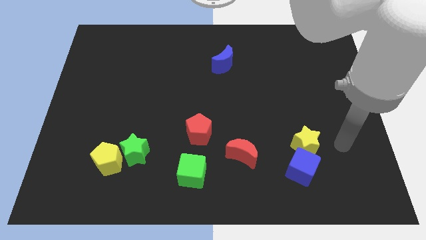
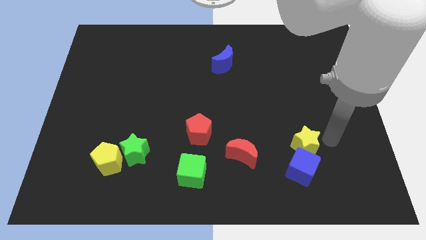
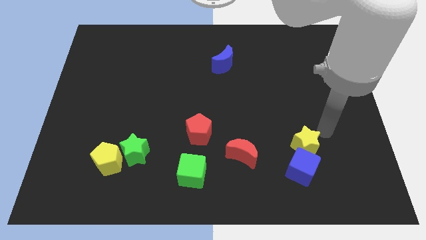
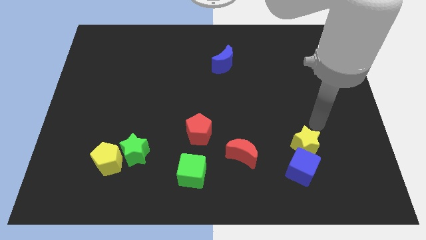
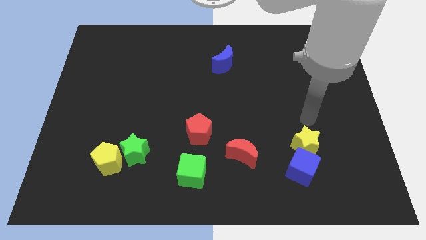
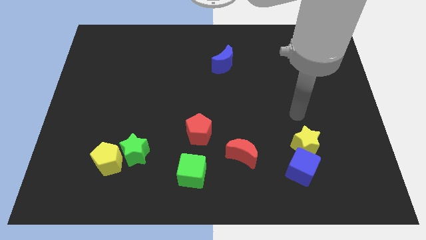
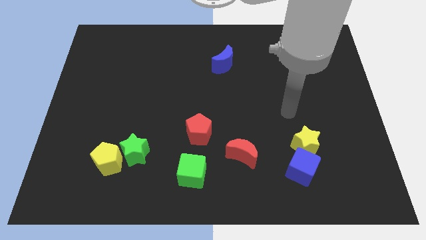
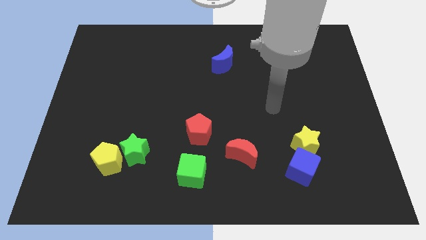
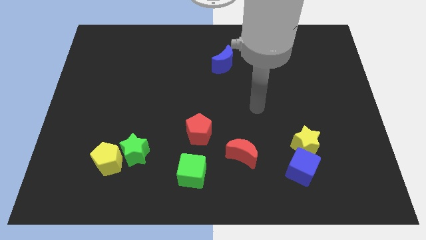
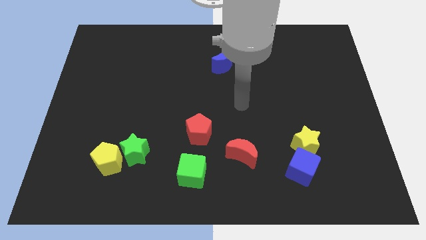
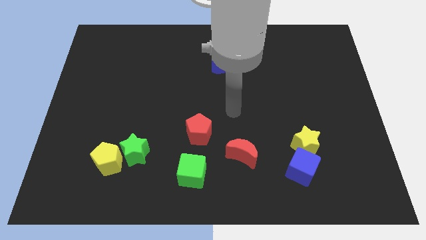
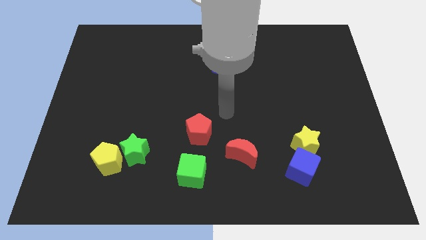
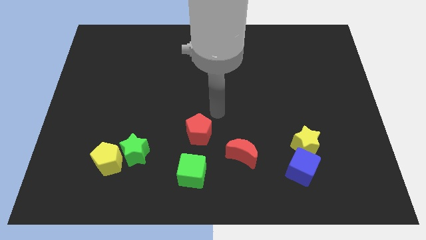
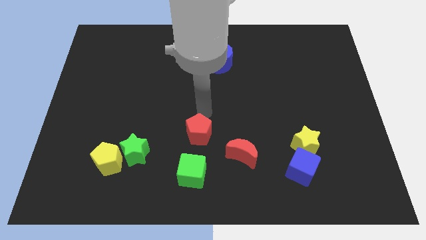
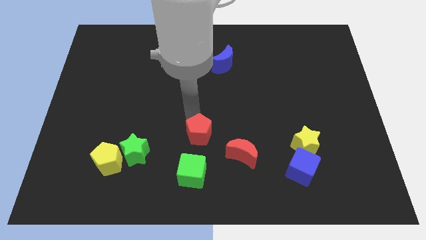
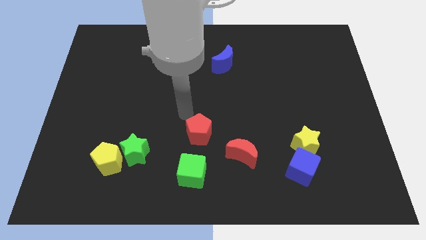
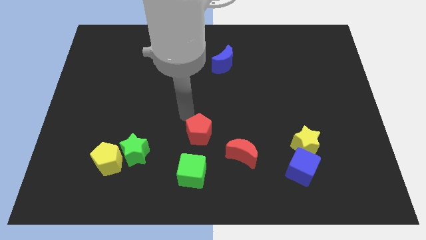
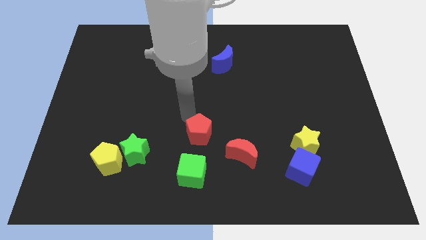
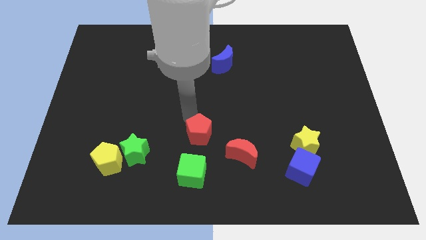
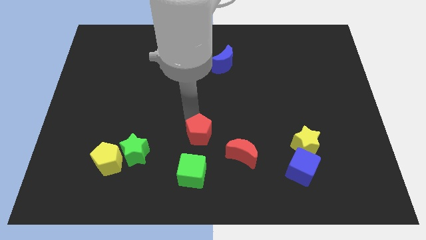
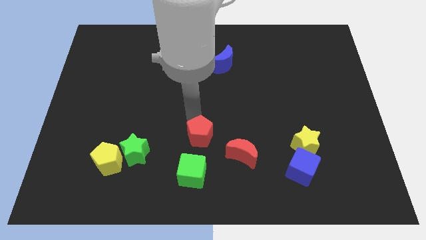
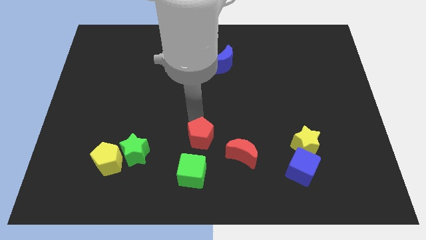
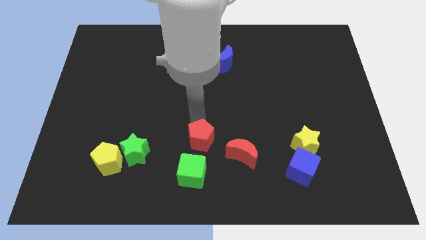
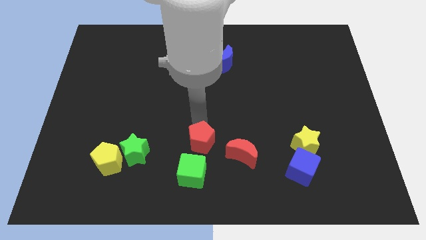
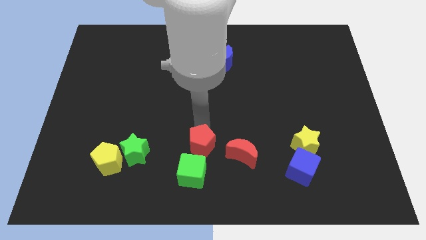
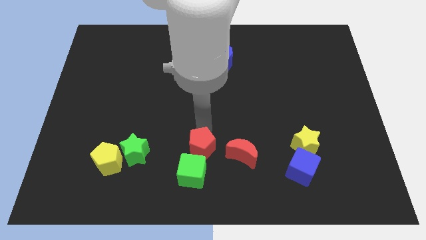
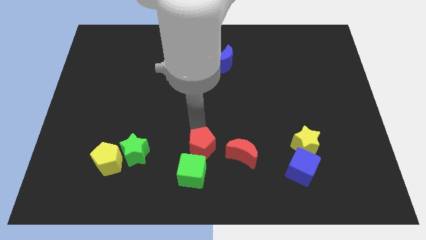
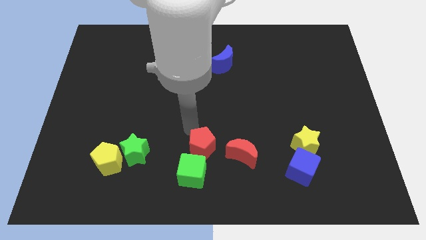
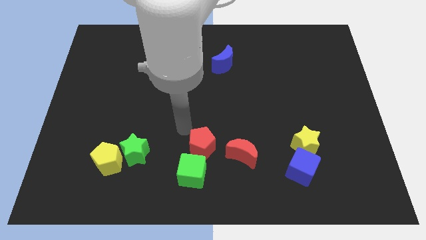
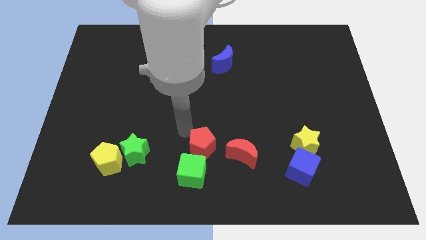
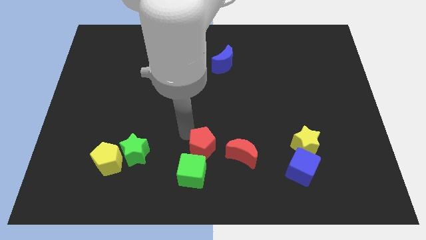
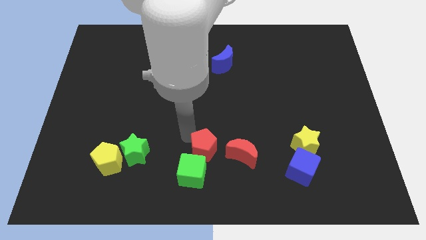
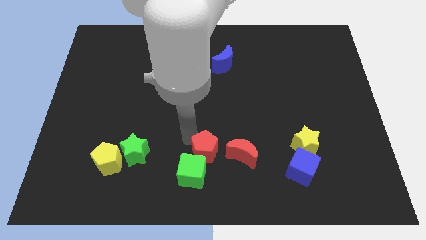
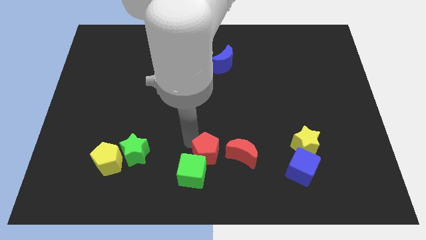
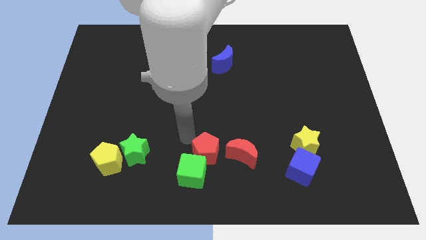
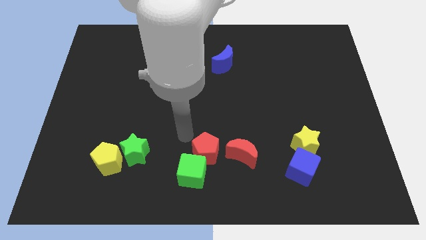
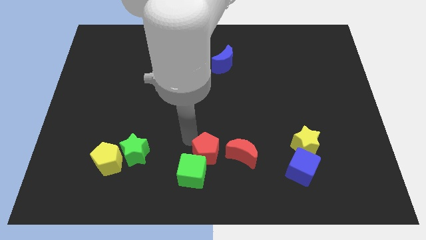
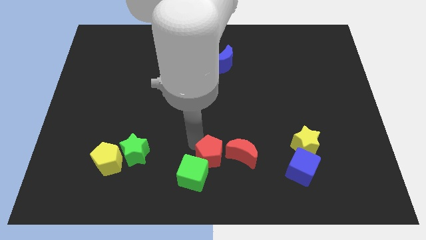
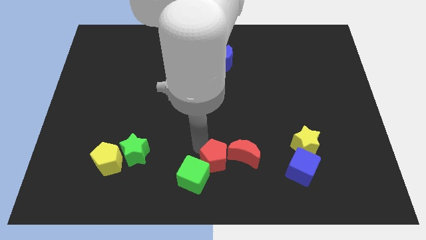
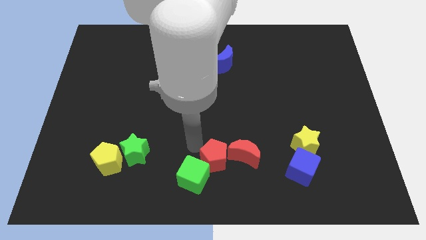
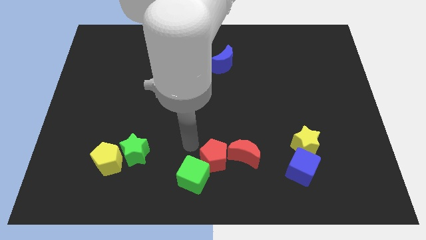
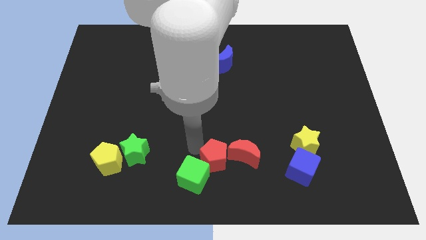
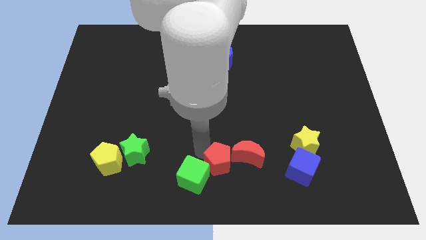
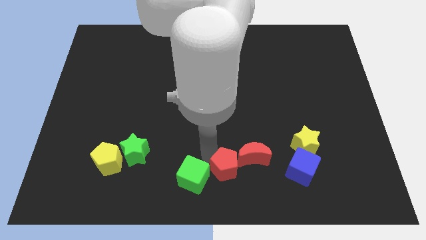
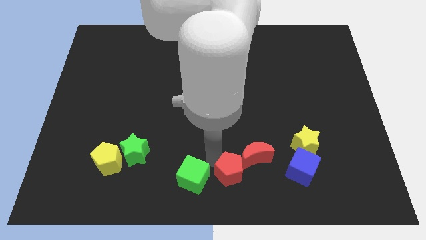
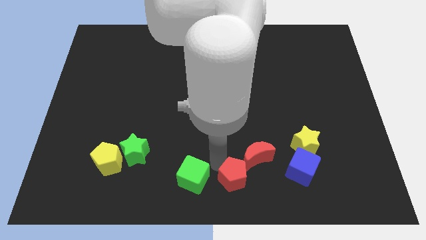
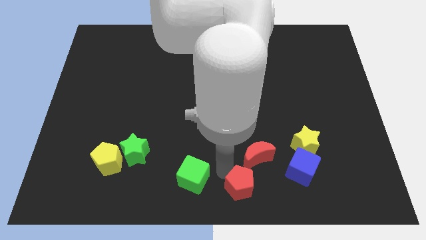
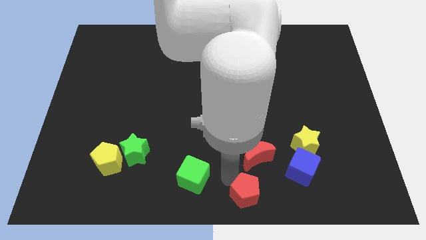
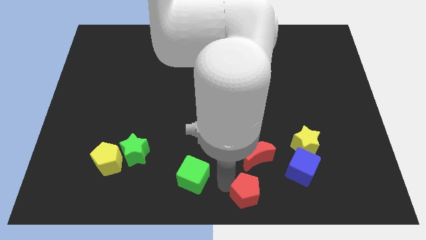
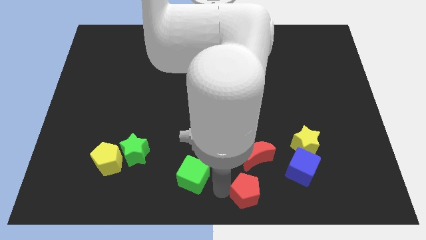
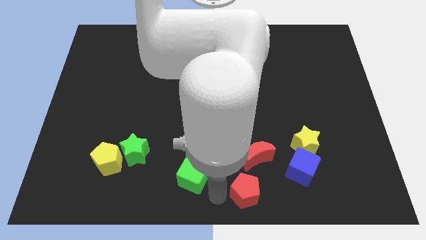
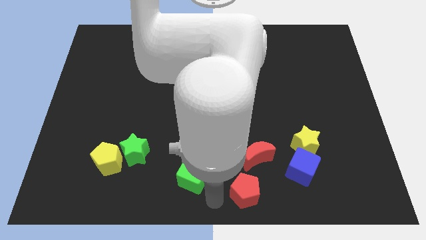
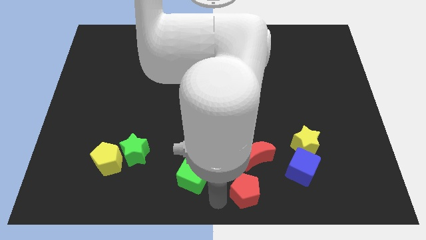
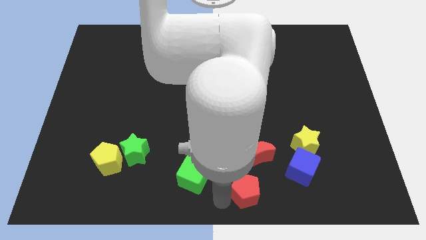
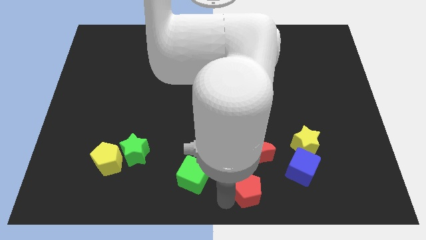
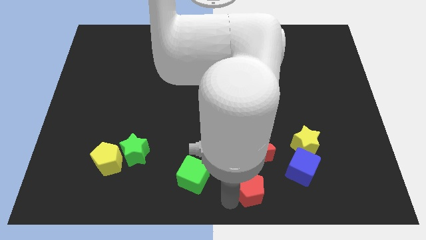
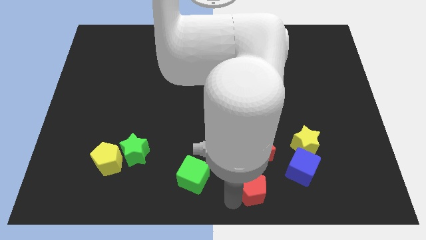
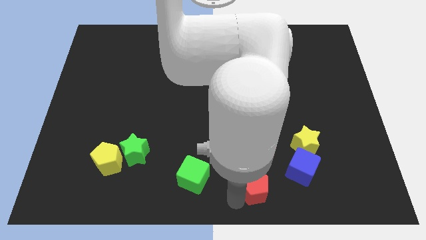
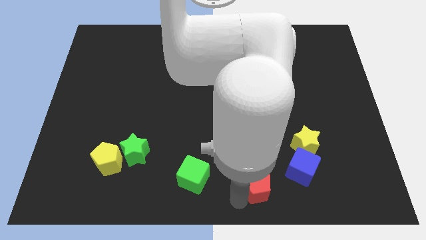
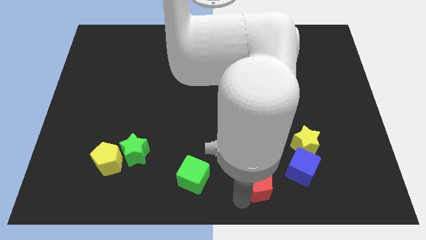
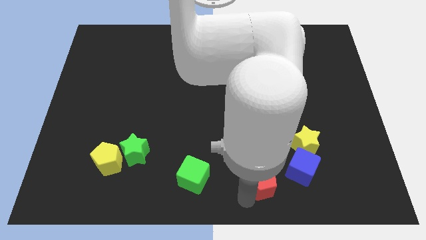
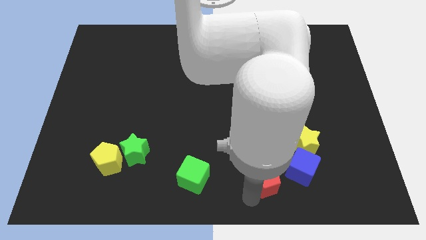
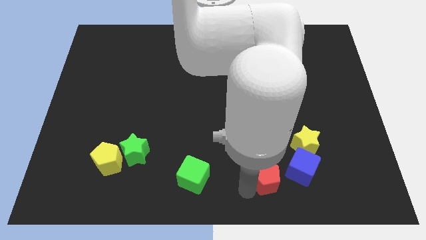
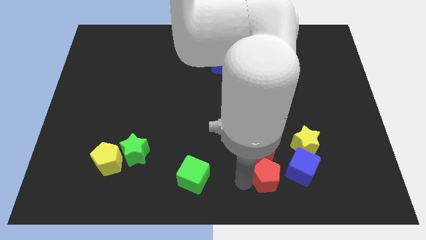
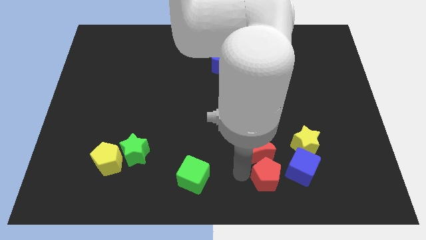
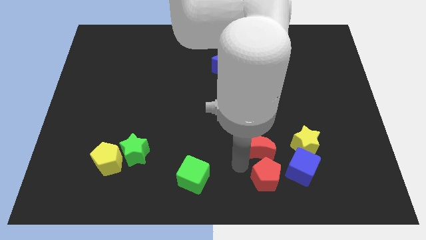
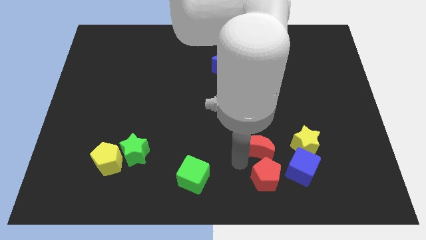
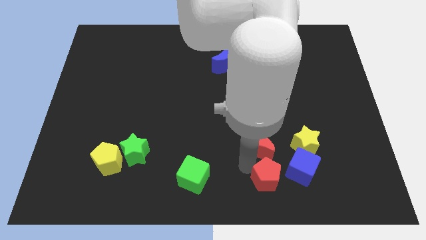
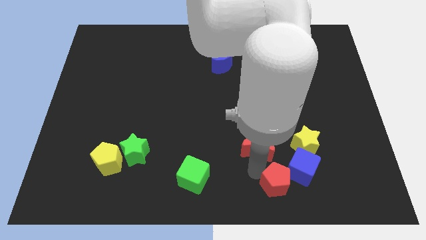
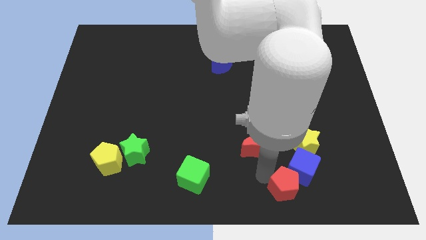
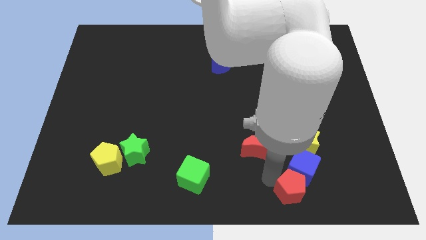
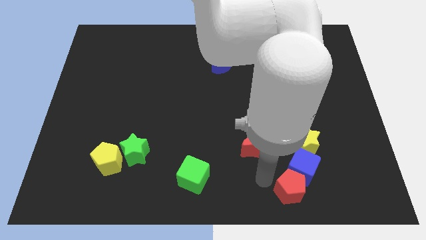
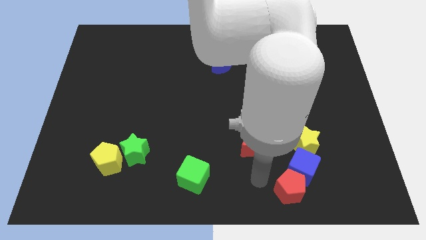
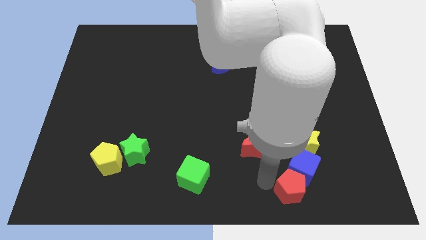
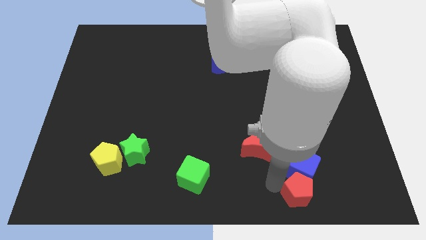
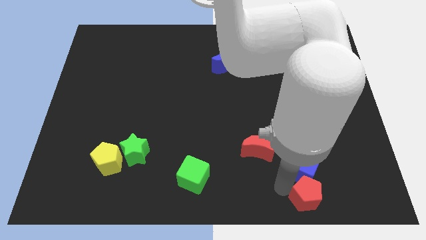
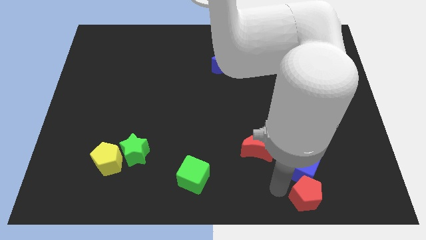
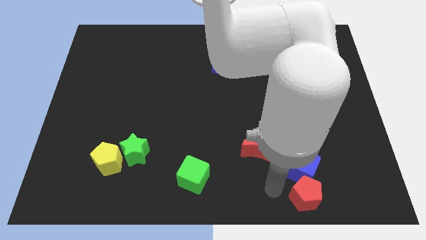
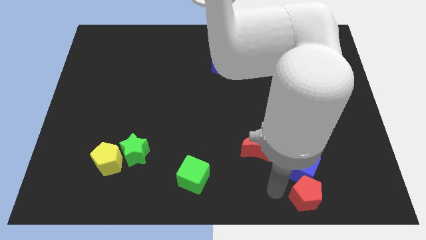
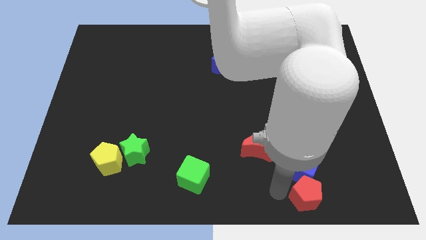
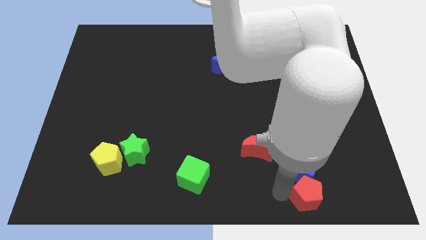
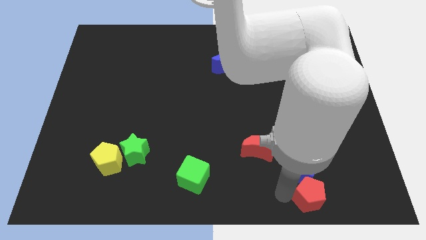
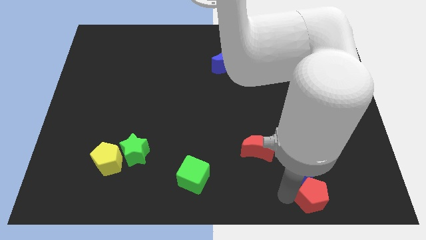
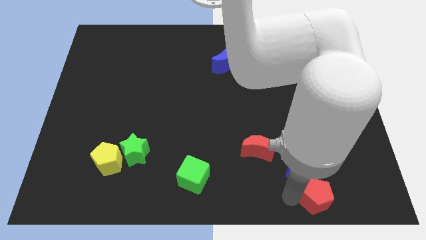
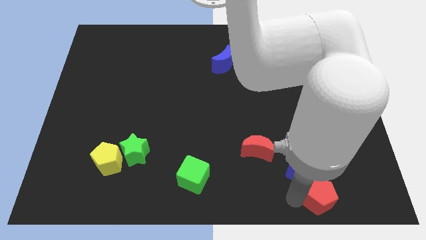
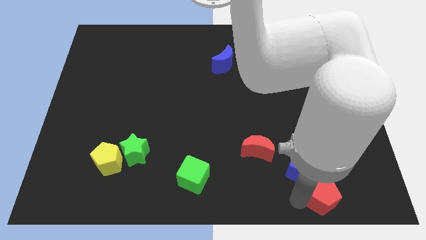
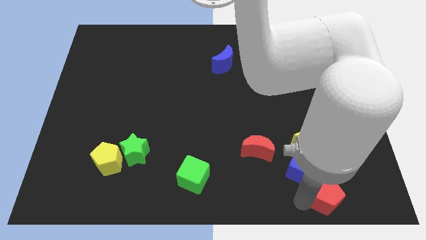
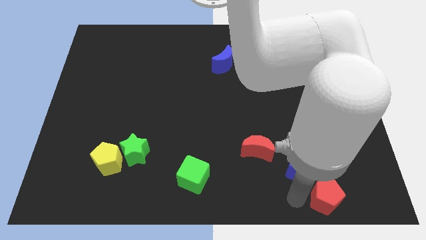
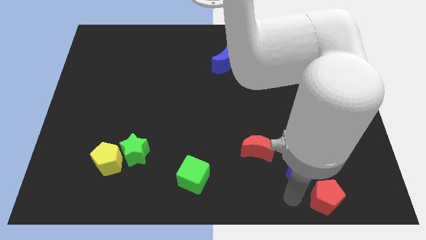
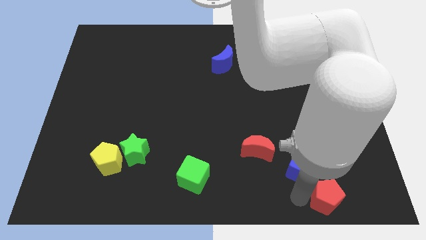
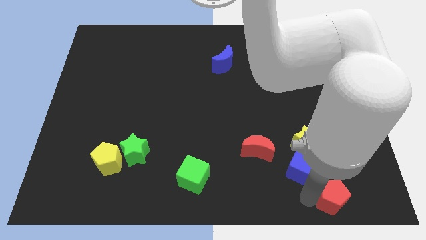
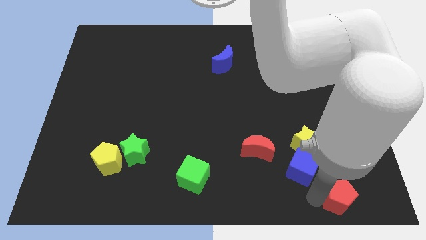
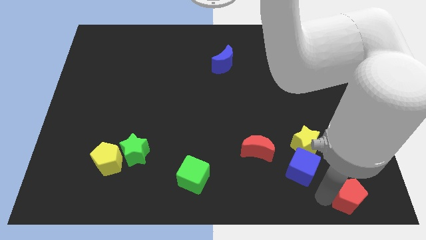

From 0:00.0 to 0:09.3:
push the red pentagon to the bottom right of the board
